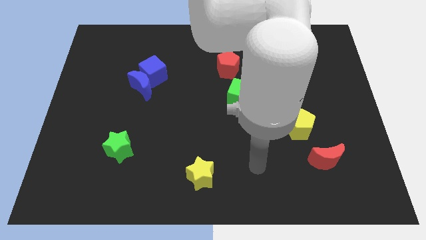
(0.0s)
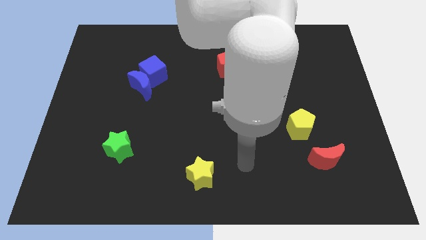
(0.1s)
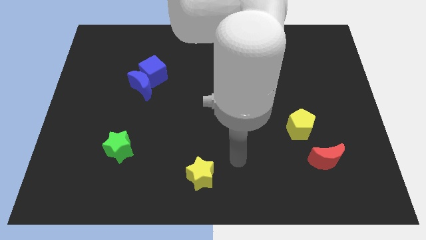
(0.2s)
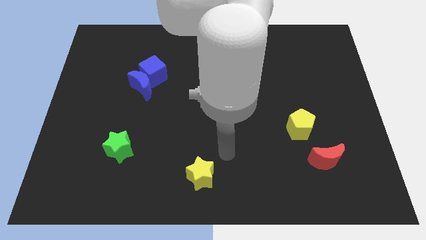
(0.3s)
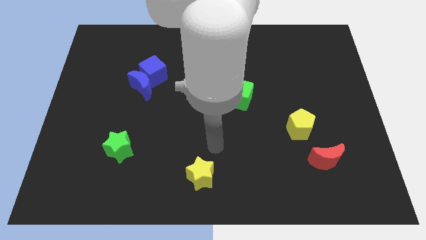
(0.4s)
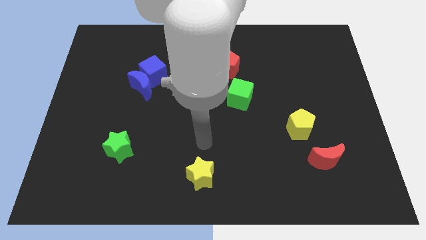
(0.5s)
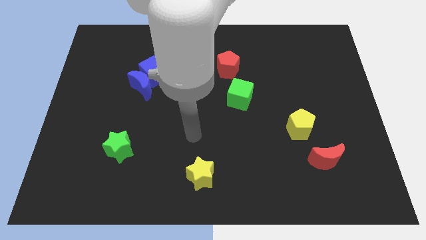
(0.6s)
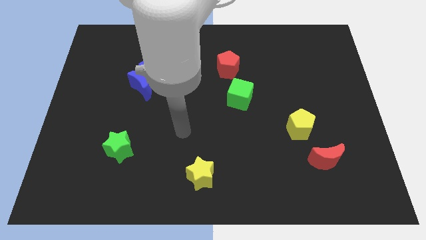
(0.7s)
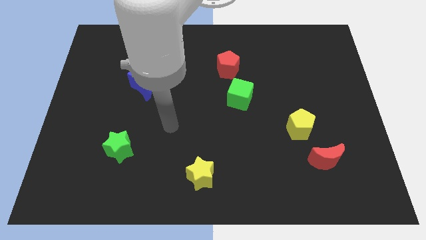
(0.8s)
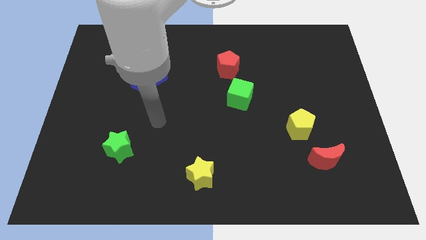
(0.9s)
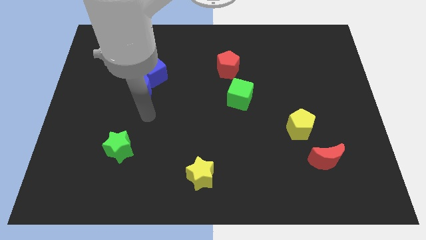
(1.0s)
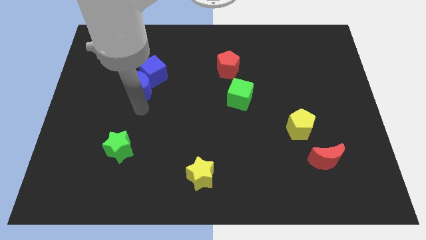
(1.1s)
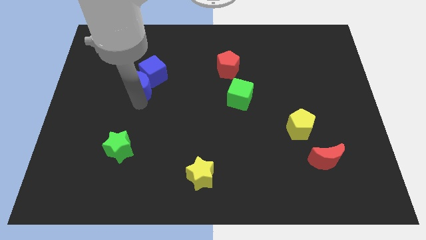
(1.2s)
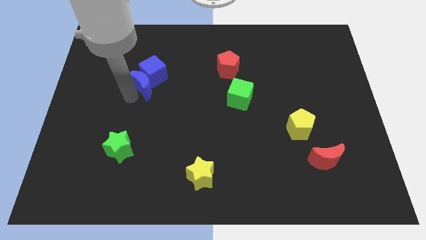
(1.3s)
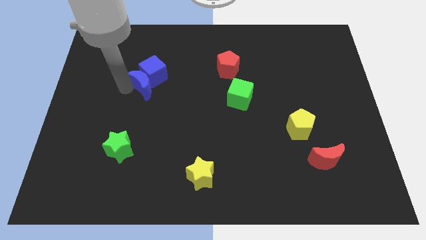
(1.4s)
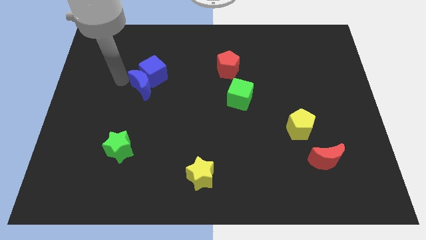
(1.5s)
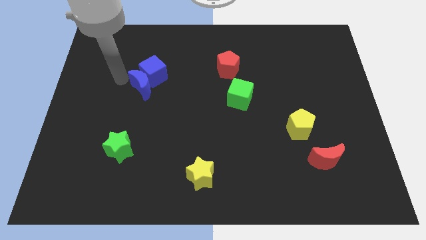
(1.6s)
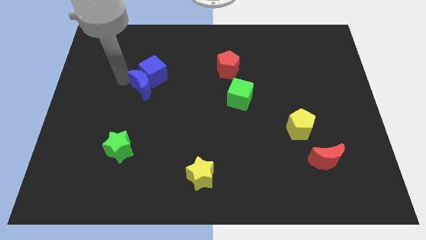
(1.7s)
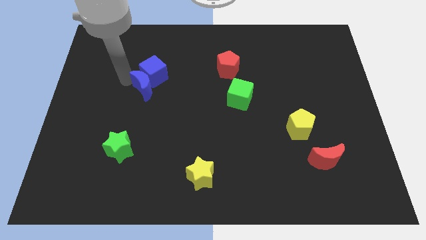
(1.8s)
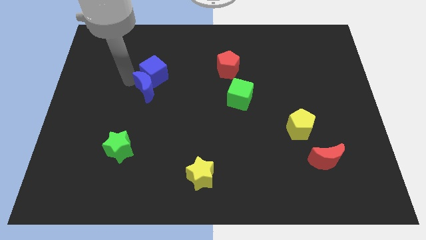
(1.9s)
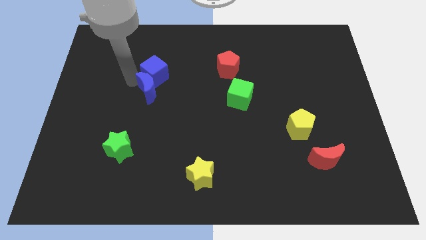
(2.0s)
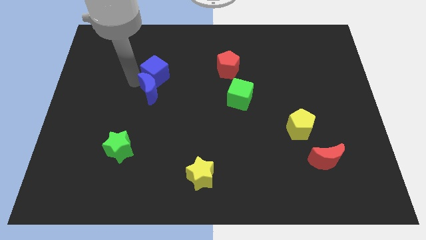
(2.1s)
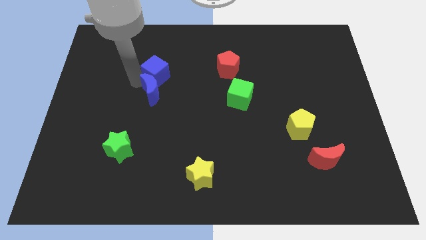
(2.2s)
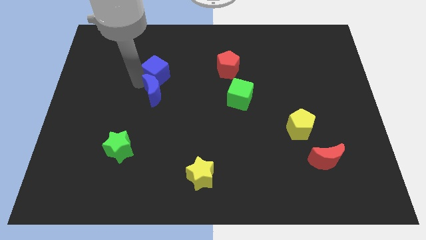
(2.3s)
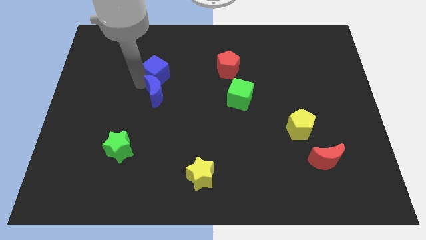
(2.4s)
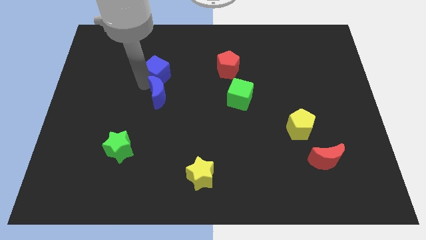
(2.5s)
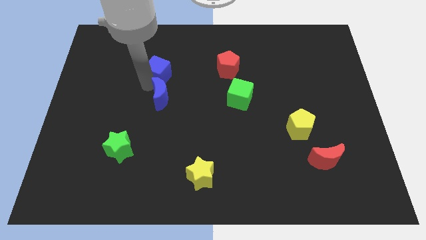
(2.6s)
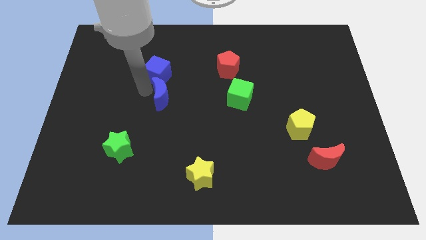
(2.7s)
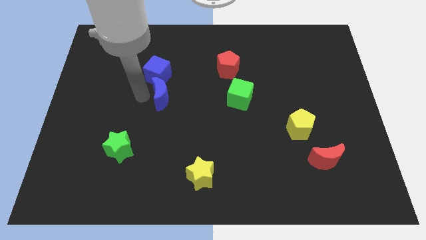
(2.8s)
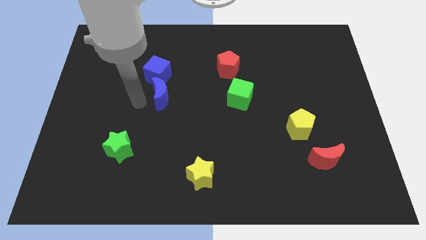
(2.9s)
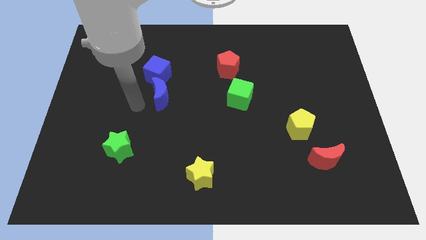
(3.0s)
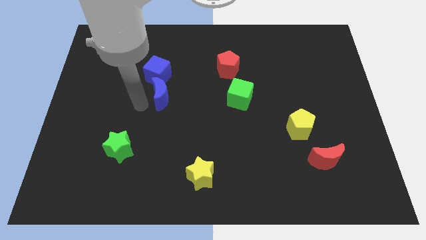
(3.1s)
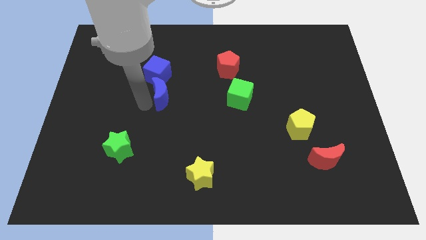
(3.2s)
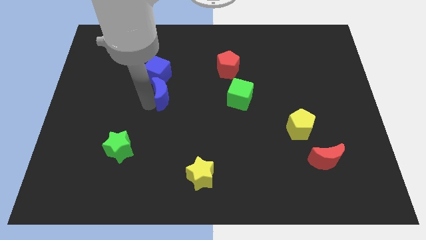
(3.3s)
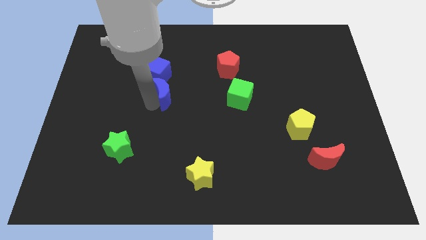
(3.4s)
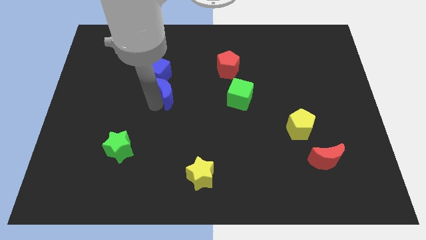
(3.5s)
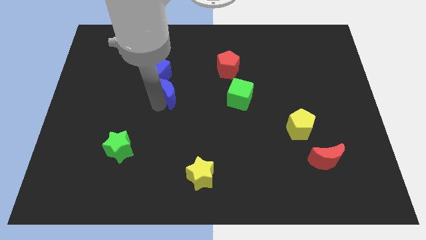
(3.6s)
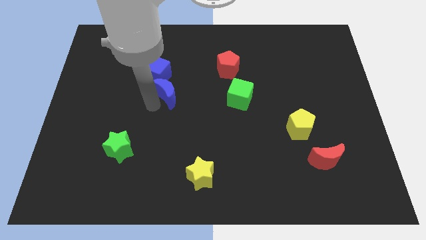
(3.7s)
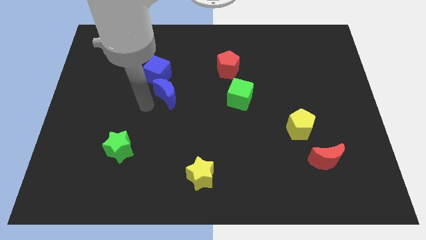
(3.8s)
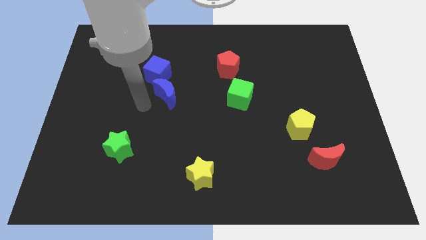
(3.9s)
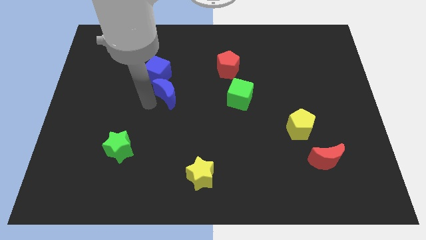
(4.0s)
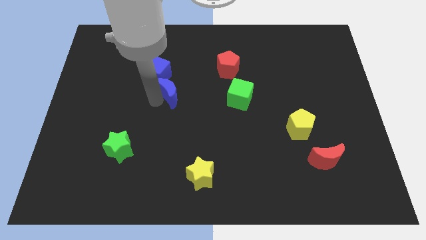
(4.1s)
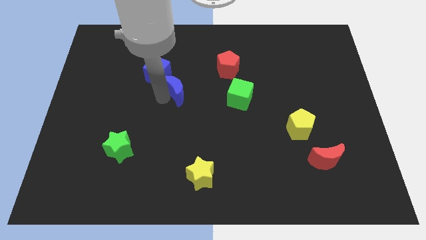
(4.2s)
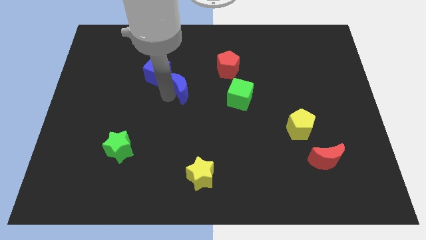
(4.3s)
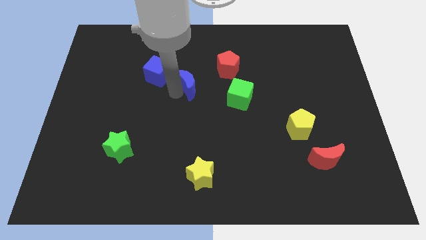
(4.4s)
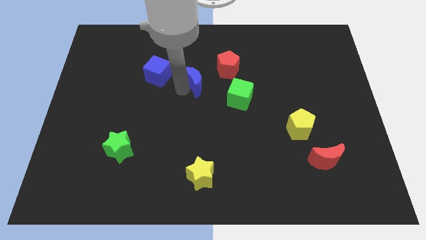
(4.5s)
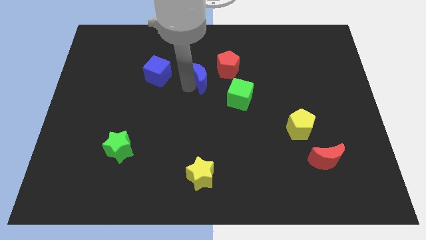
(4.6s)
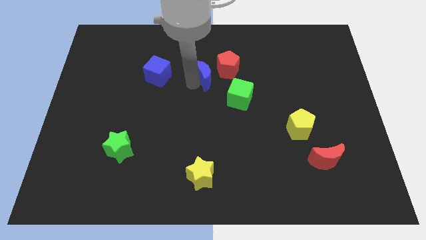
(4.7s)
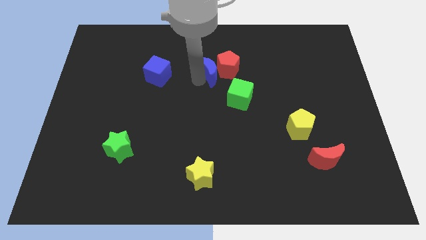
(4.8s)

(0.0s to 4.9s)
put the blue moon to the red pentagon

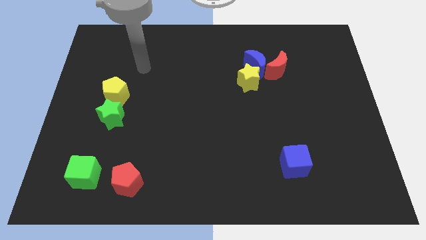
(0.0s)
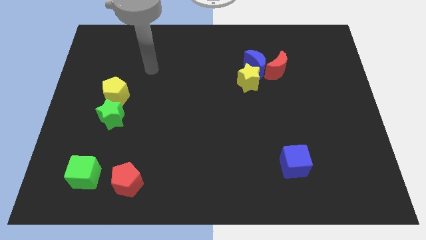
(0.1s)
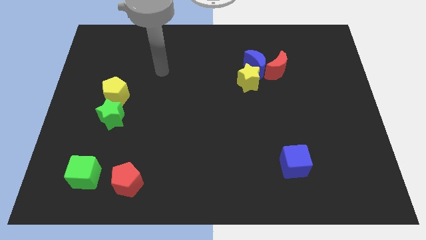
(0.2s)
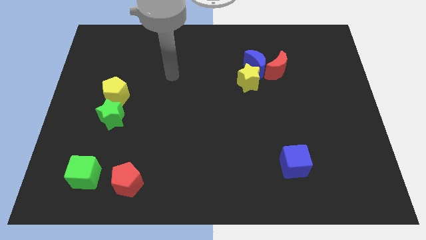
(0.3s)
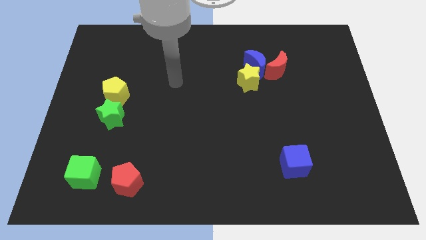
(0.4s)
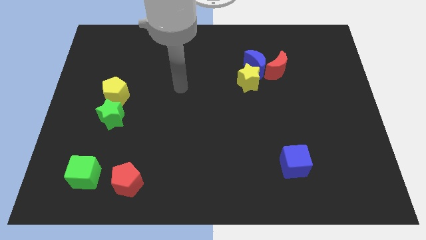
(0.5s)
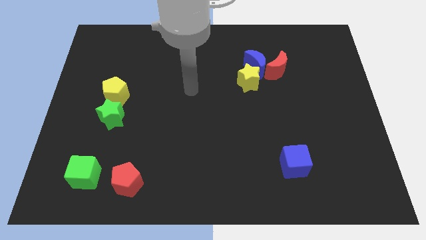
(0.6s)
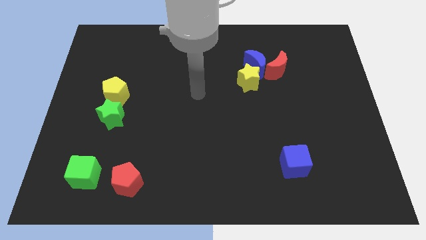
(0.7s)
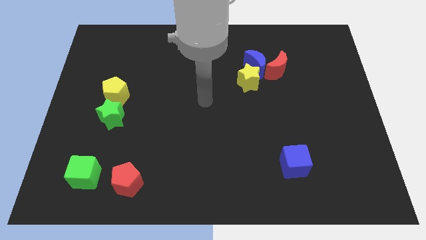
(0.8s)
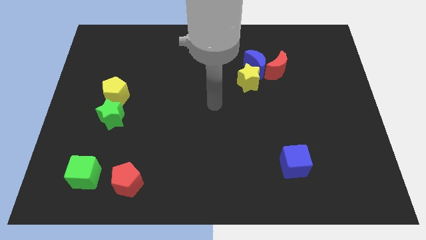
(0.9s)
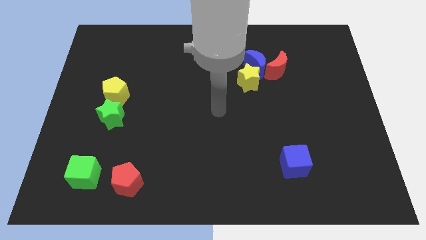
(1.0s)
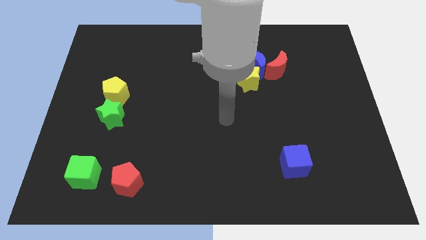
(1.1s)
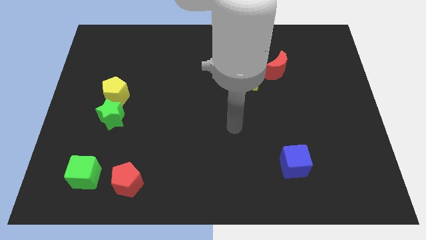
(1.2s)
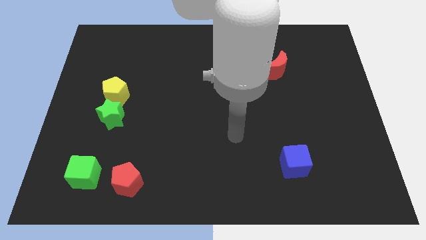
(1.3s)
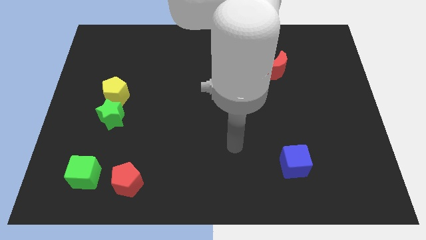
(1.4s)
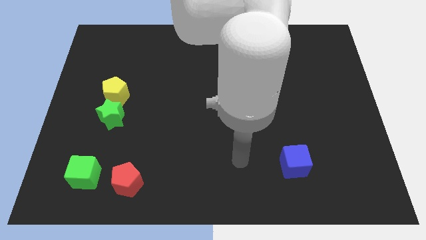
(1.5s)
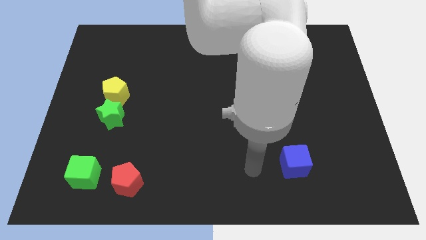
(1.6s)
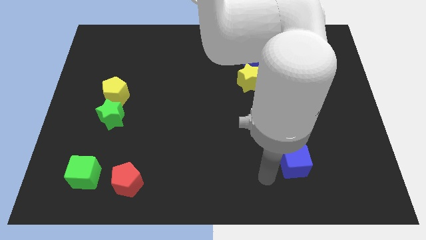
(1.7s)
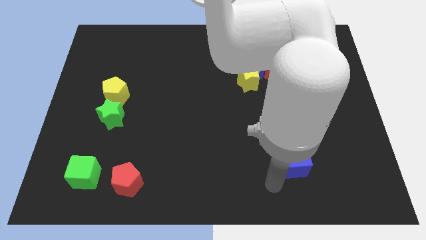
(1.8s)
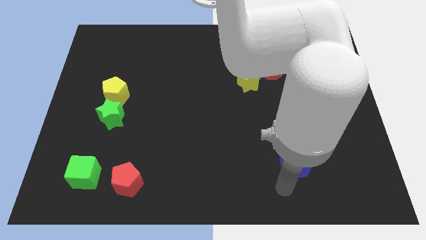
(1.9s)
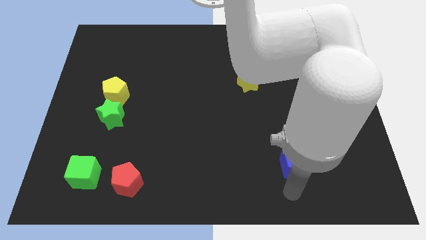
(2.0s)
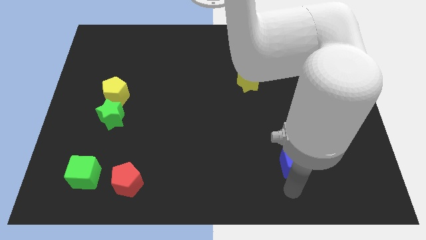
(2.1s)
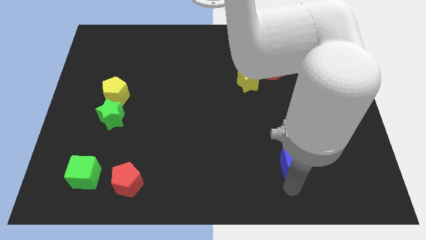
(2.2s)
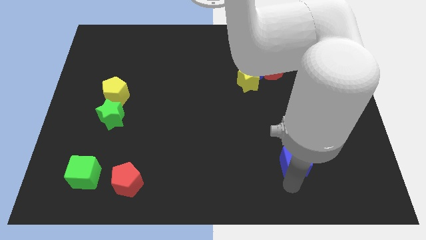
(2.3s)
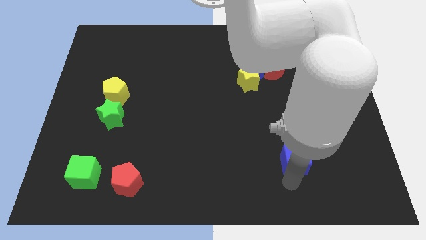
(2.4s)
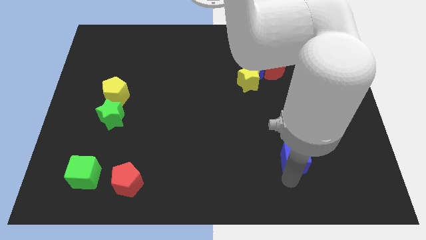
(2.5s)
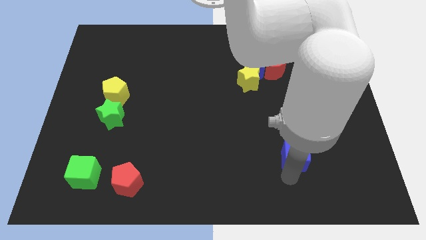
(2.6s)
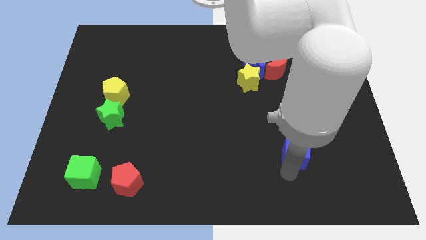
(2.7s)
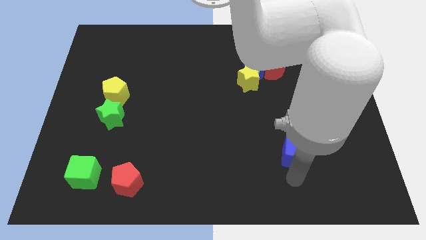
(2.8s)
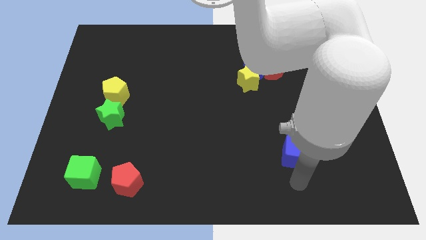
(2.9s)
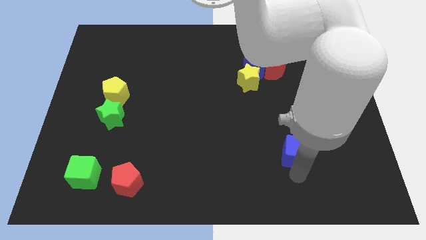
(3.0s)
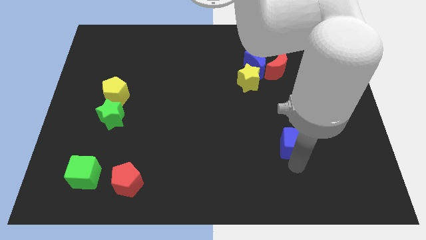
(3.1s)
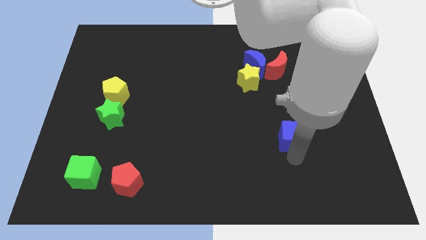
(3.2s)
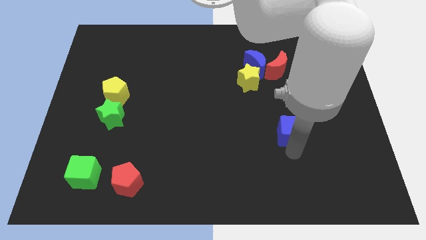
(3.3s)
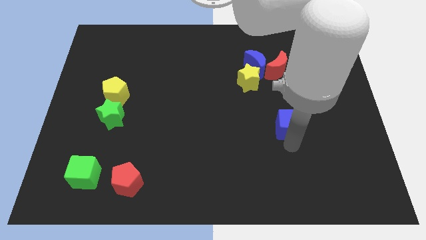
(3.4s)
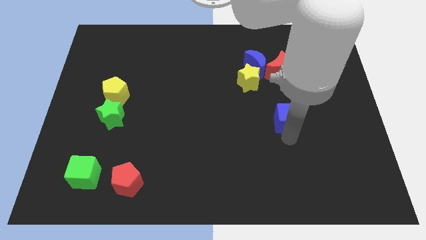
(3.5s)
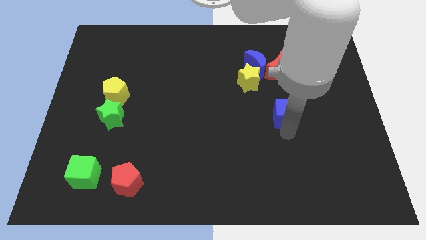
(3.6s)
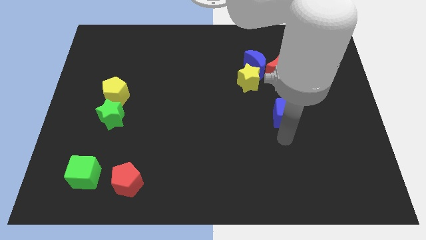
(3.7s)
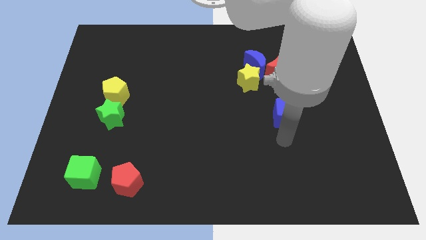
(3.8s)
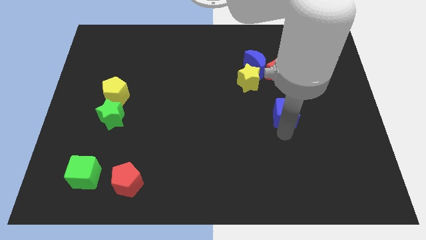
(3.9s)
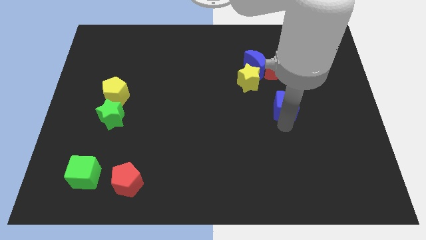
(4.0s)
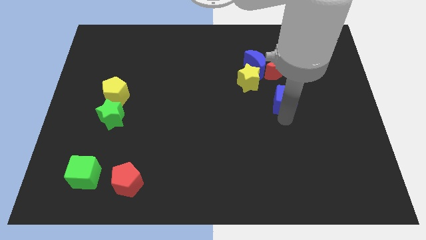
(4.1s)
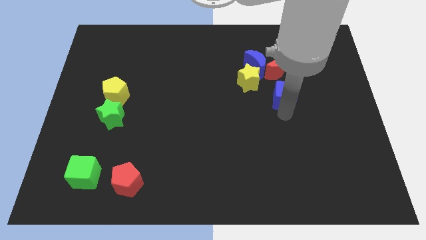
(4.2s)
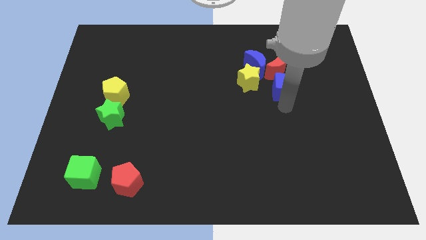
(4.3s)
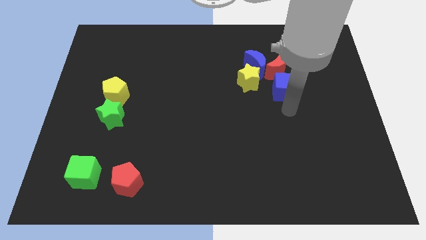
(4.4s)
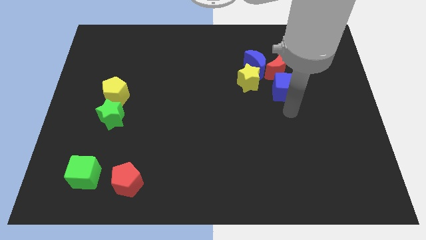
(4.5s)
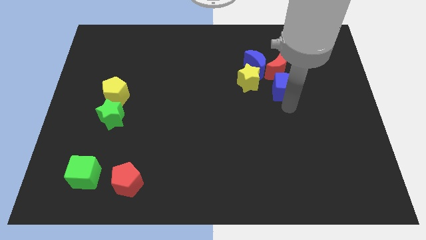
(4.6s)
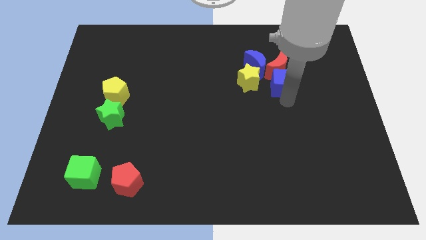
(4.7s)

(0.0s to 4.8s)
put the blue cube next to the red moon
